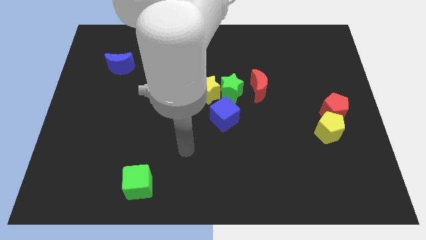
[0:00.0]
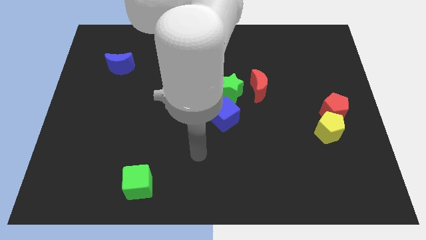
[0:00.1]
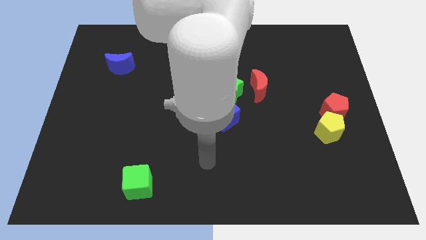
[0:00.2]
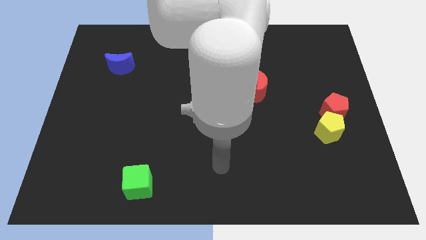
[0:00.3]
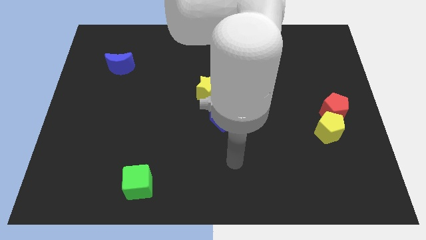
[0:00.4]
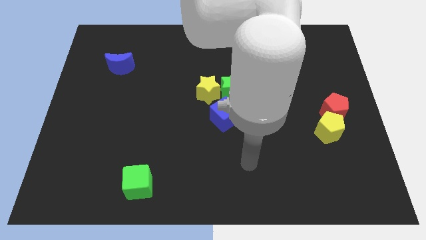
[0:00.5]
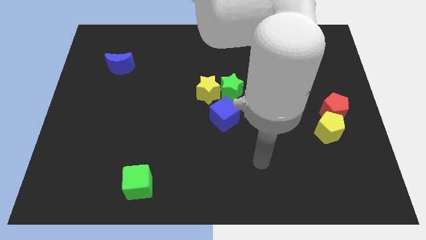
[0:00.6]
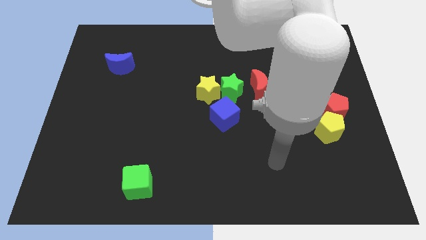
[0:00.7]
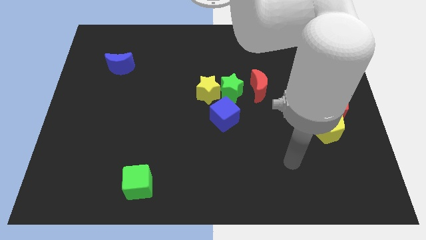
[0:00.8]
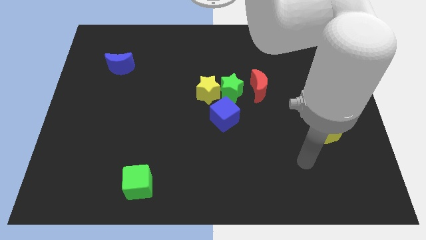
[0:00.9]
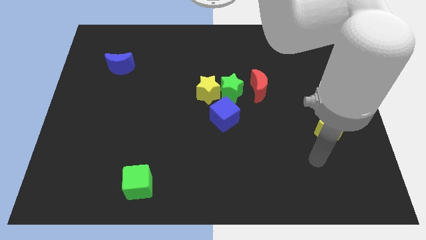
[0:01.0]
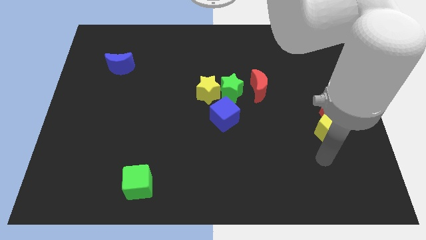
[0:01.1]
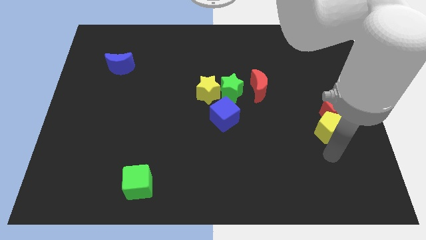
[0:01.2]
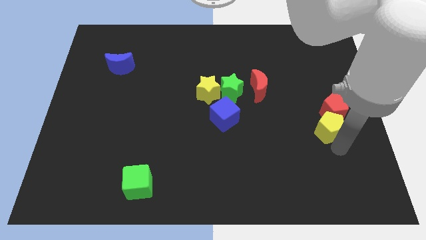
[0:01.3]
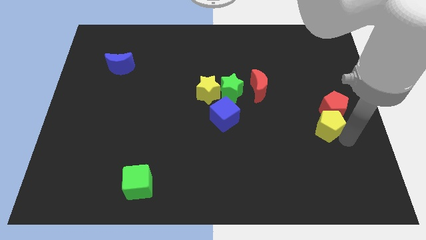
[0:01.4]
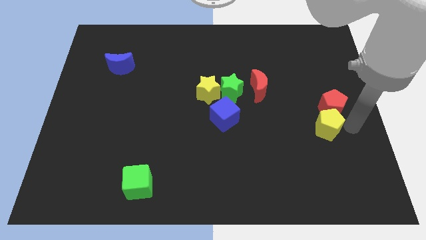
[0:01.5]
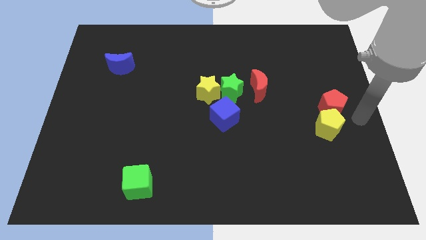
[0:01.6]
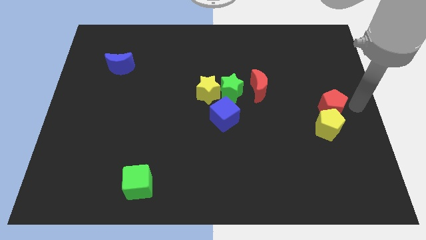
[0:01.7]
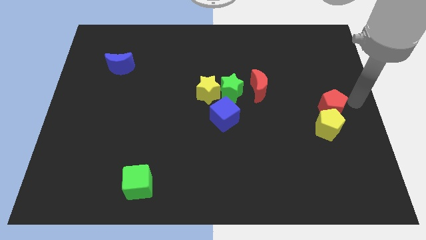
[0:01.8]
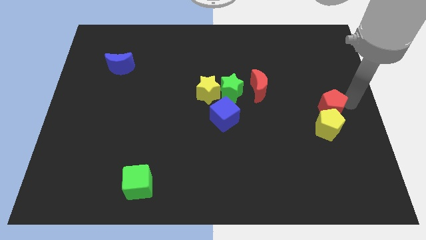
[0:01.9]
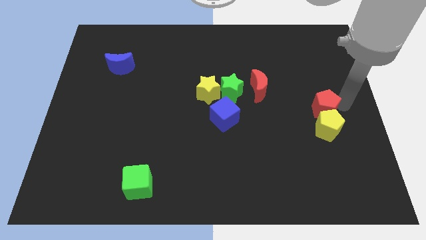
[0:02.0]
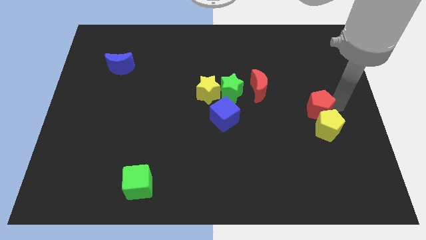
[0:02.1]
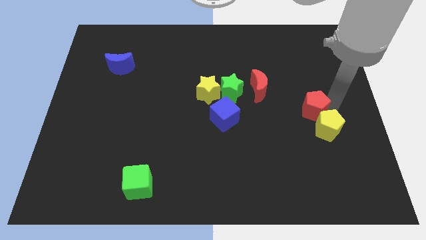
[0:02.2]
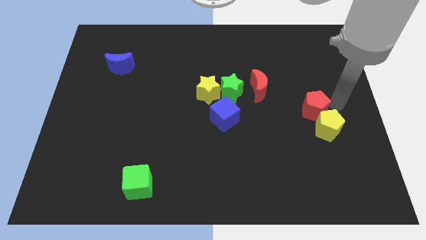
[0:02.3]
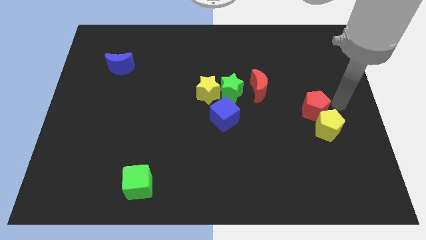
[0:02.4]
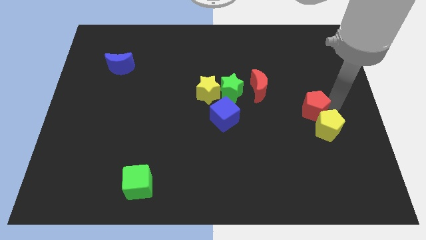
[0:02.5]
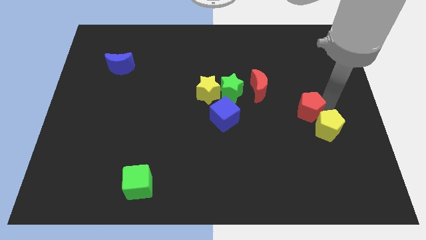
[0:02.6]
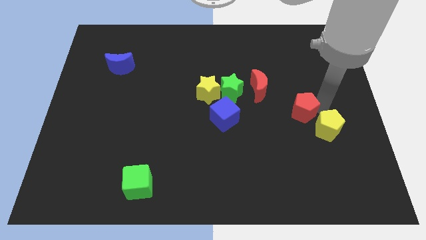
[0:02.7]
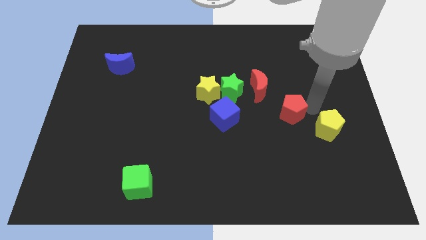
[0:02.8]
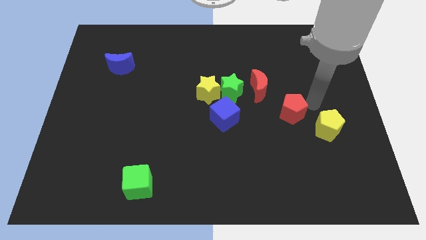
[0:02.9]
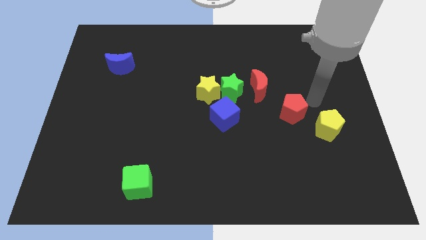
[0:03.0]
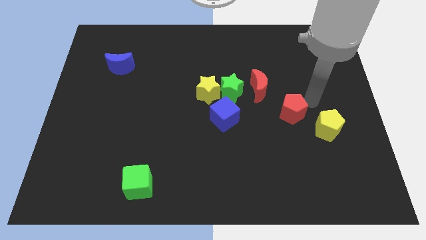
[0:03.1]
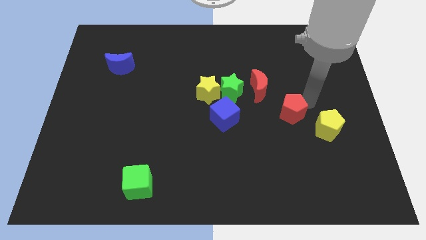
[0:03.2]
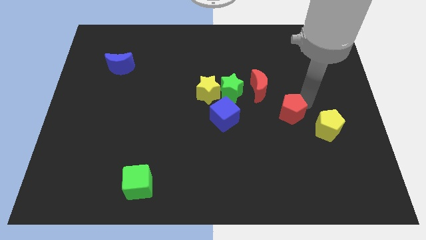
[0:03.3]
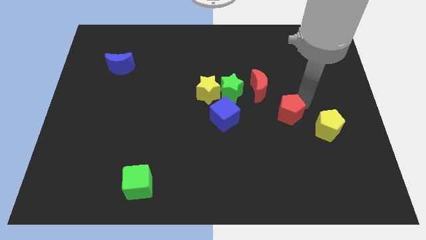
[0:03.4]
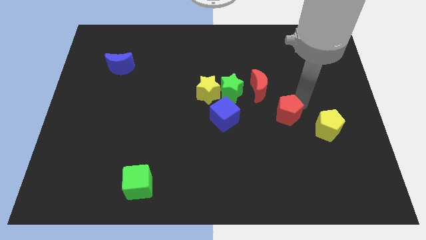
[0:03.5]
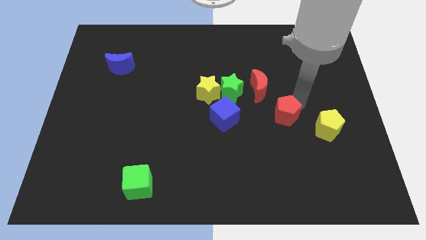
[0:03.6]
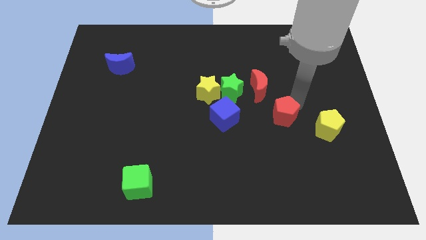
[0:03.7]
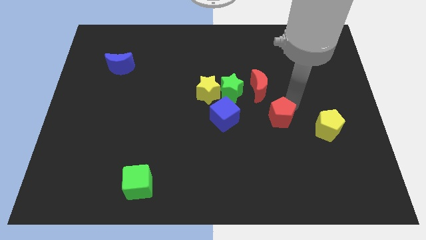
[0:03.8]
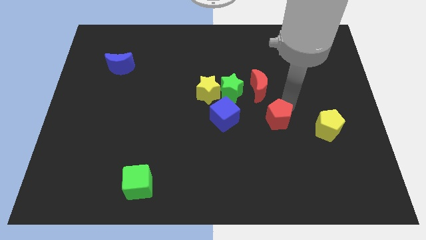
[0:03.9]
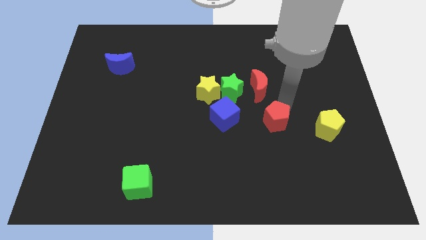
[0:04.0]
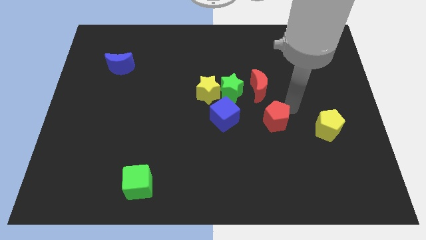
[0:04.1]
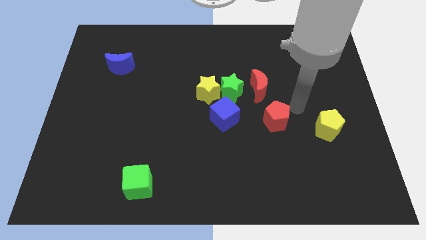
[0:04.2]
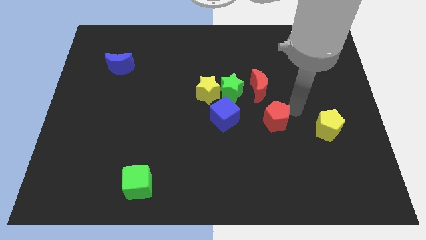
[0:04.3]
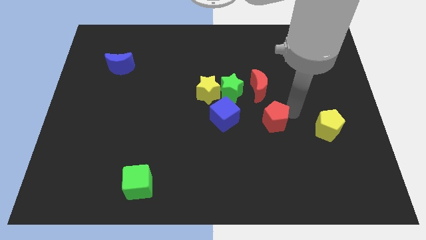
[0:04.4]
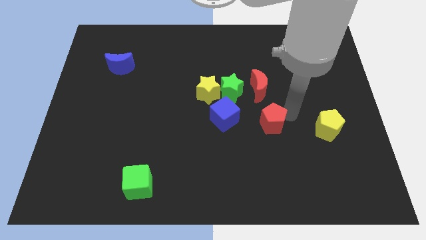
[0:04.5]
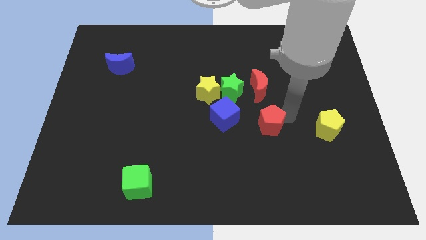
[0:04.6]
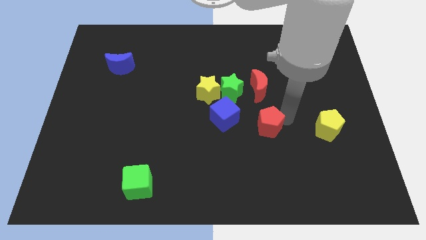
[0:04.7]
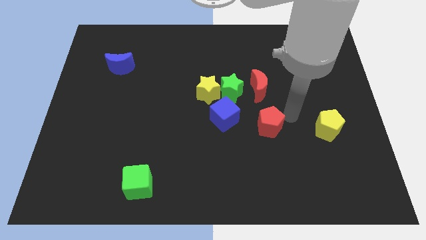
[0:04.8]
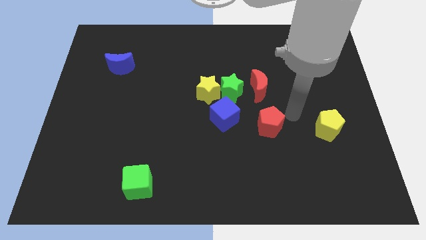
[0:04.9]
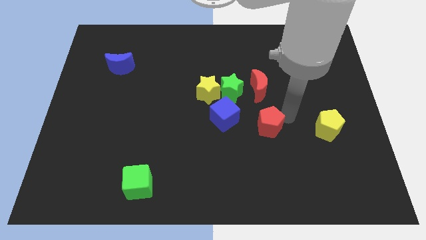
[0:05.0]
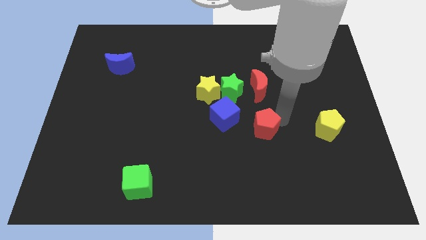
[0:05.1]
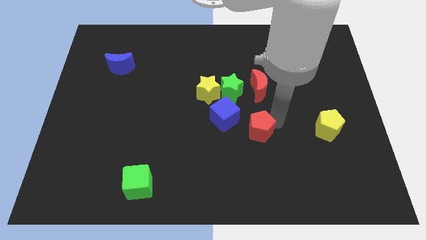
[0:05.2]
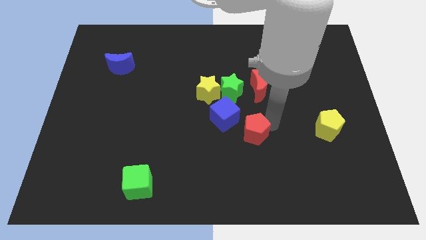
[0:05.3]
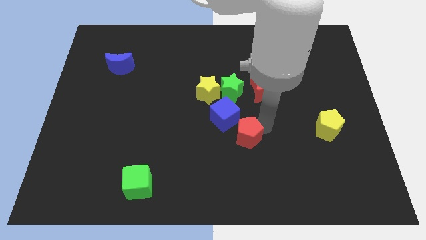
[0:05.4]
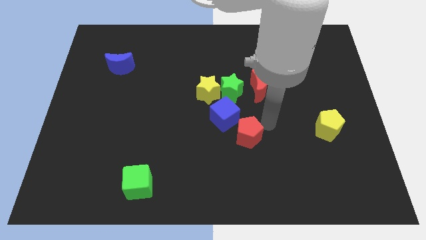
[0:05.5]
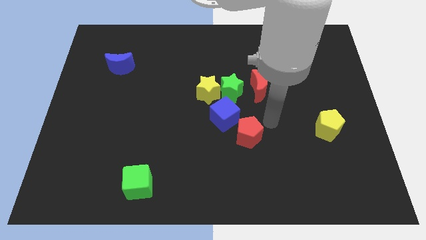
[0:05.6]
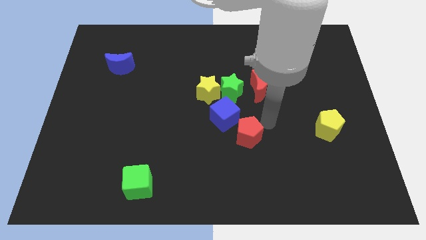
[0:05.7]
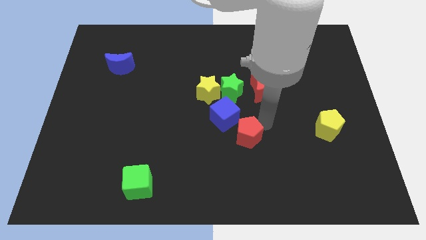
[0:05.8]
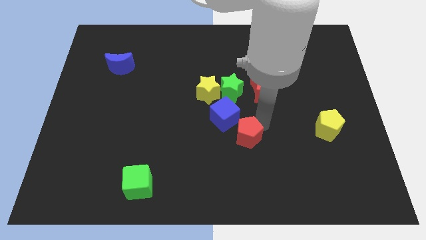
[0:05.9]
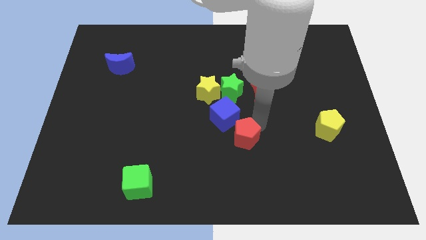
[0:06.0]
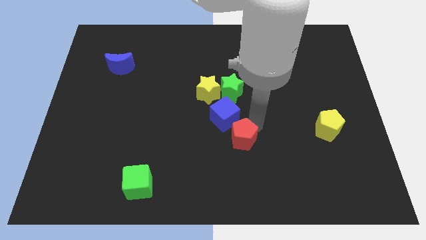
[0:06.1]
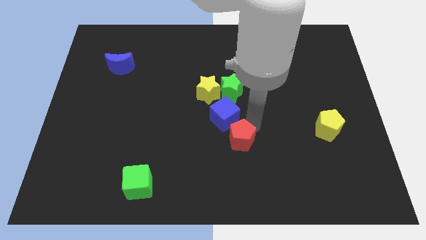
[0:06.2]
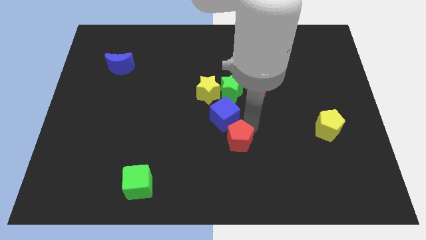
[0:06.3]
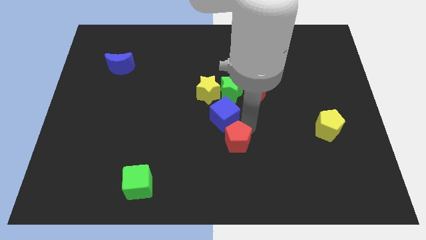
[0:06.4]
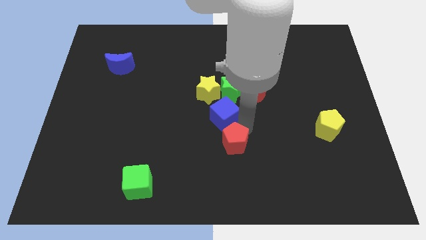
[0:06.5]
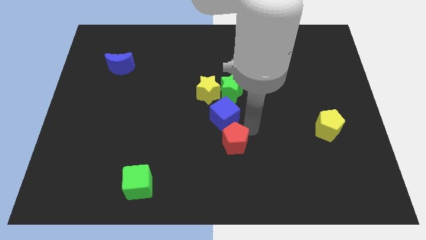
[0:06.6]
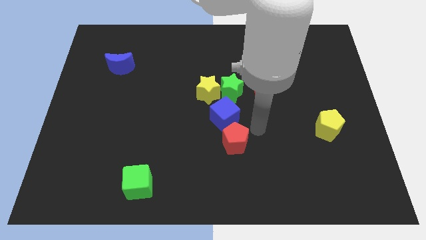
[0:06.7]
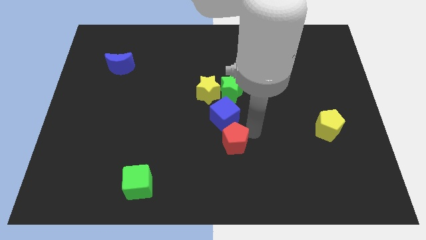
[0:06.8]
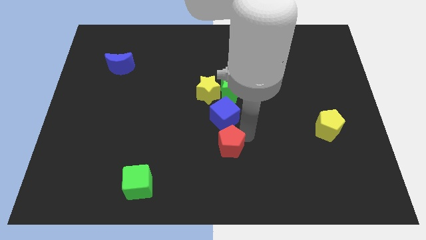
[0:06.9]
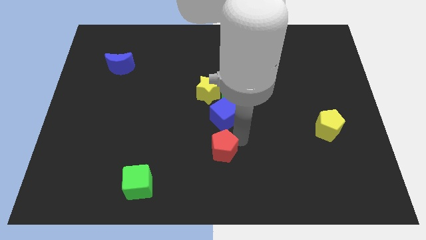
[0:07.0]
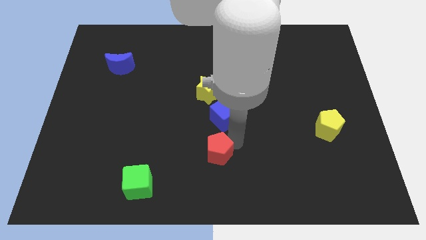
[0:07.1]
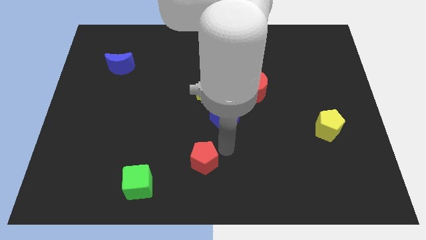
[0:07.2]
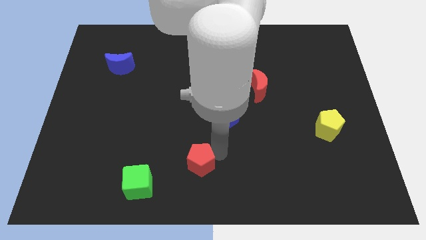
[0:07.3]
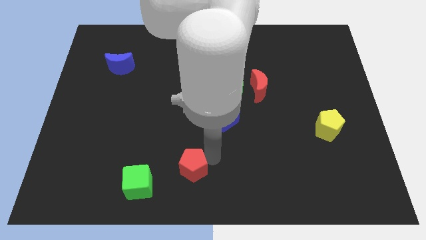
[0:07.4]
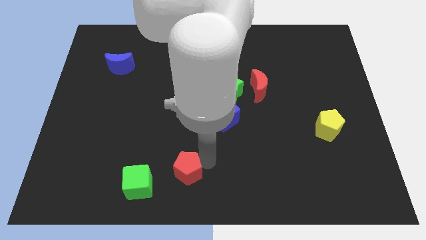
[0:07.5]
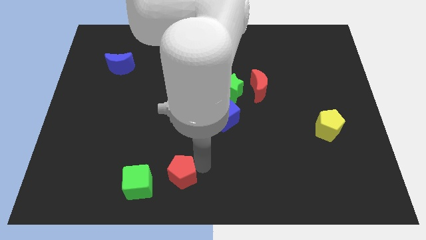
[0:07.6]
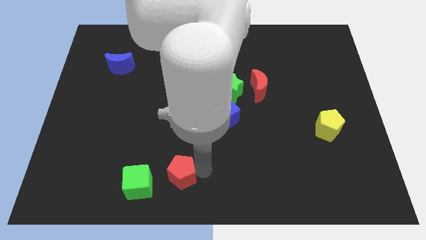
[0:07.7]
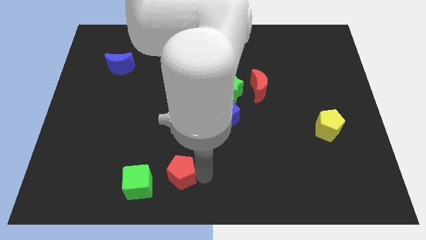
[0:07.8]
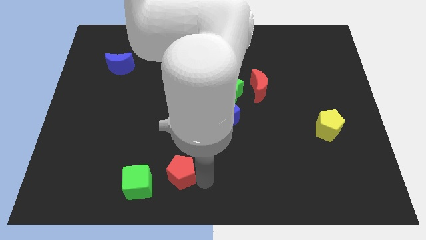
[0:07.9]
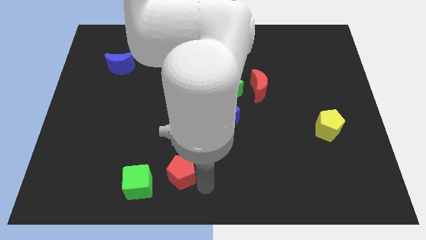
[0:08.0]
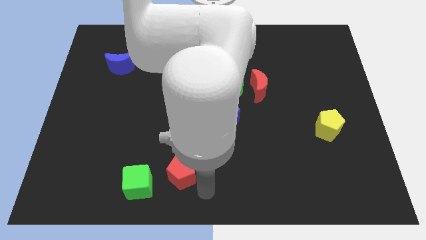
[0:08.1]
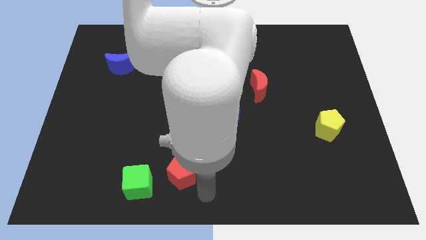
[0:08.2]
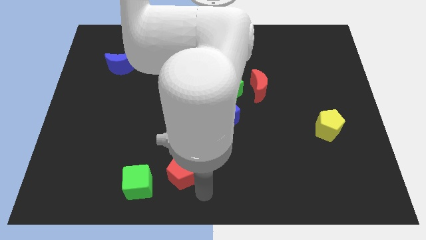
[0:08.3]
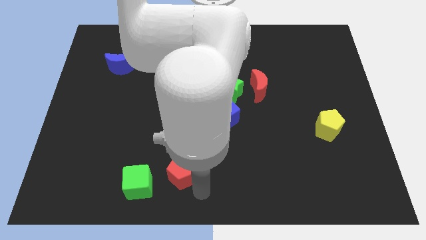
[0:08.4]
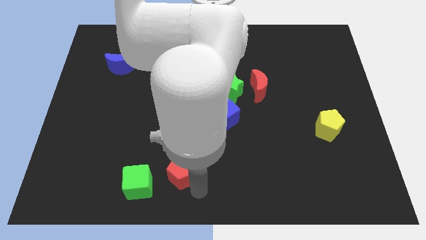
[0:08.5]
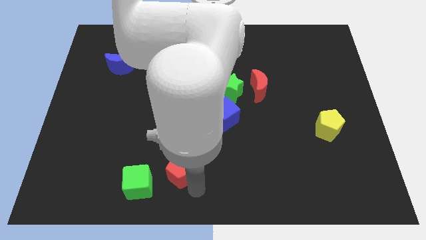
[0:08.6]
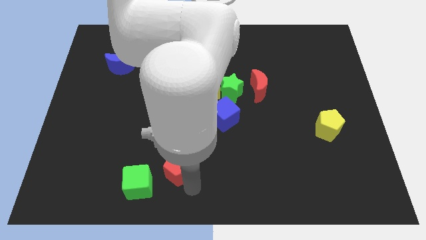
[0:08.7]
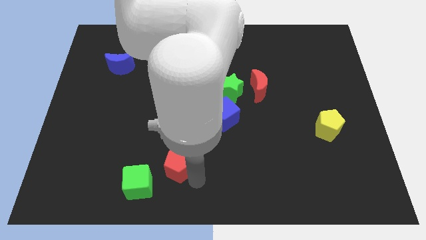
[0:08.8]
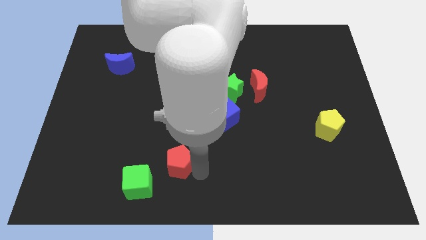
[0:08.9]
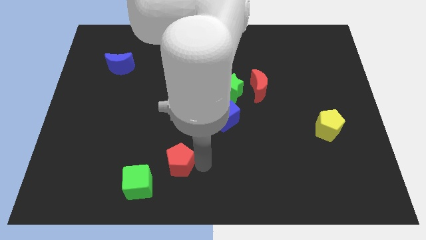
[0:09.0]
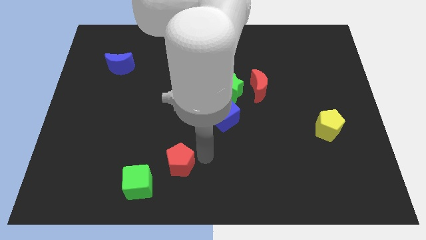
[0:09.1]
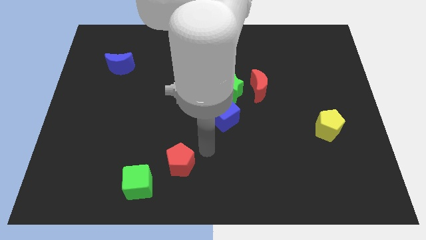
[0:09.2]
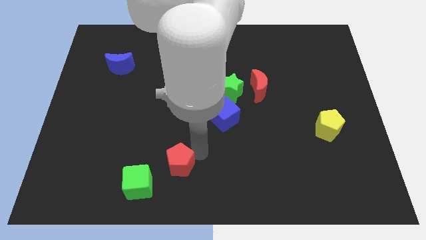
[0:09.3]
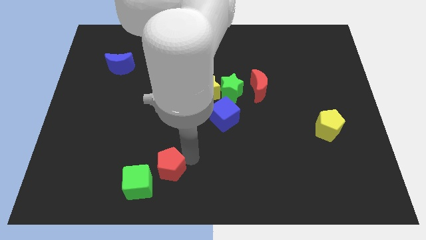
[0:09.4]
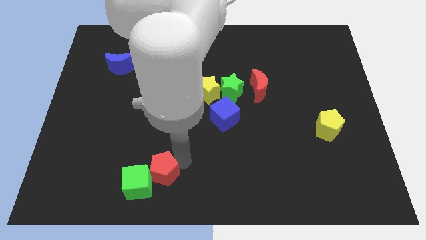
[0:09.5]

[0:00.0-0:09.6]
put the red pentagon to the green cube
